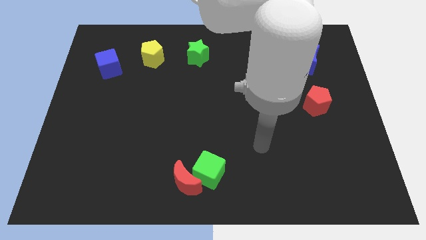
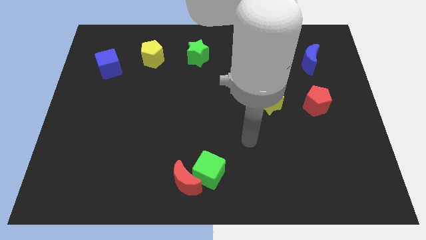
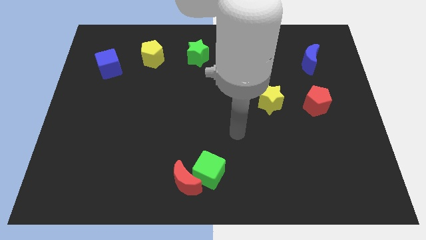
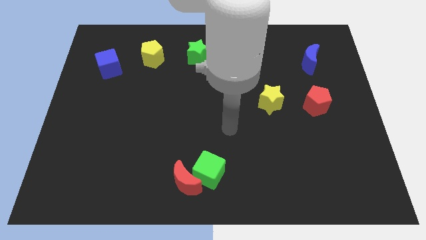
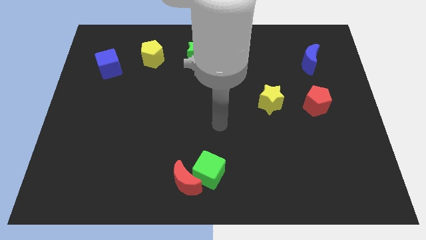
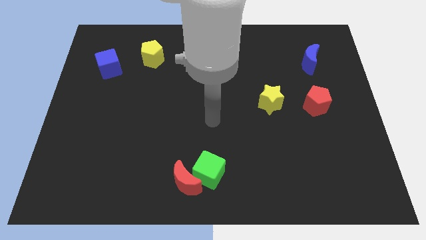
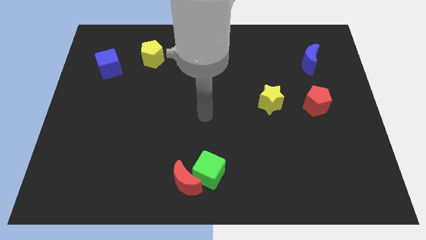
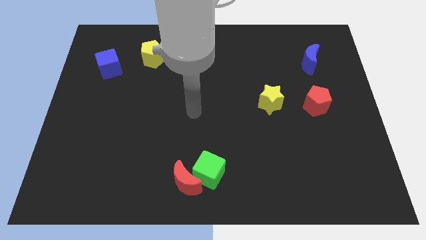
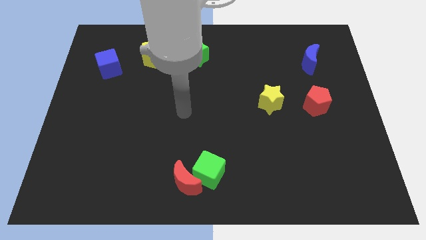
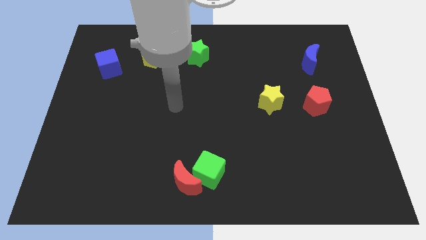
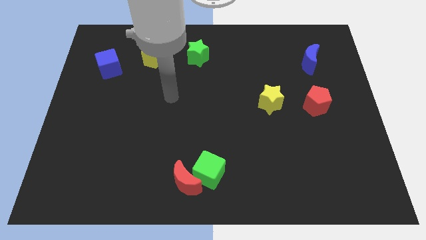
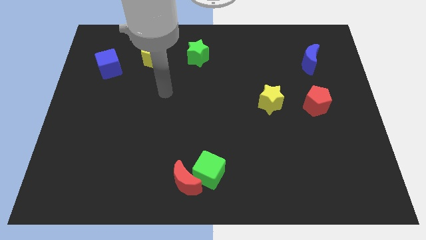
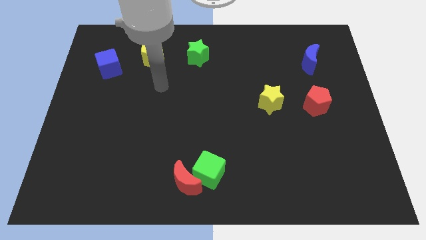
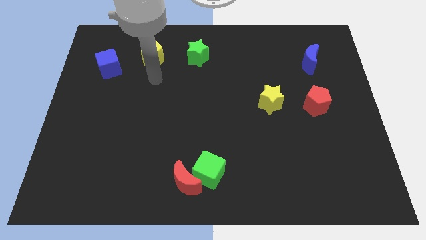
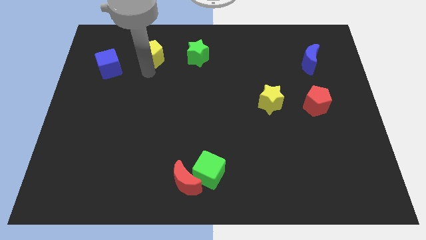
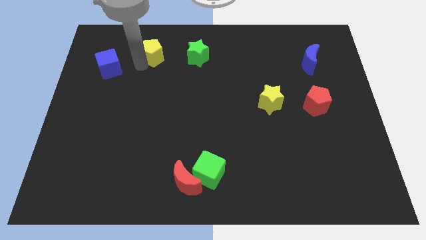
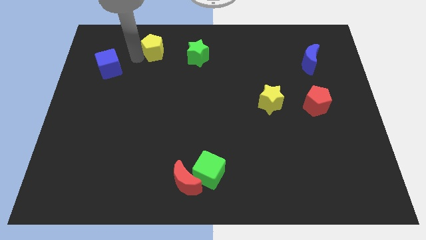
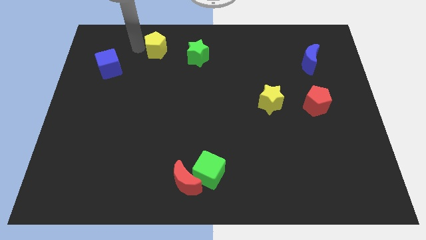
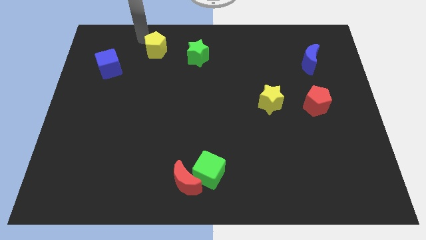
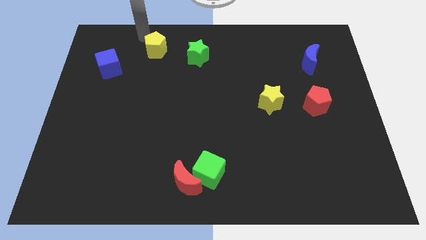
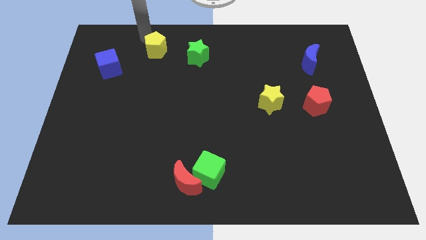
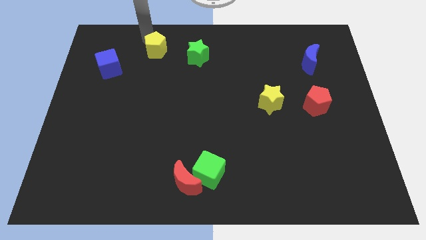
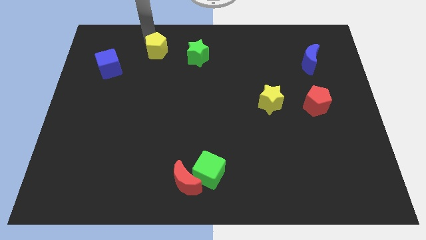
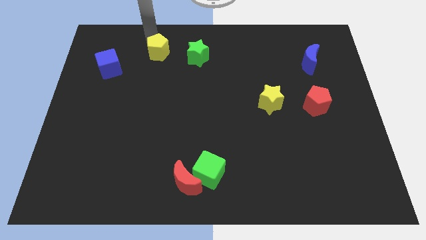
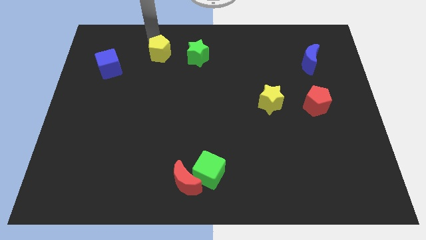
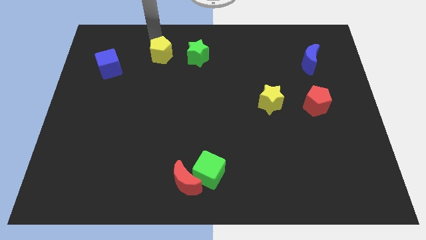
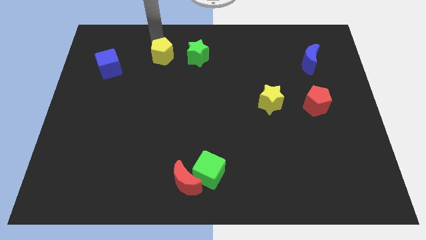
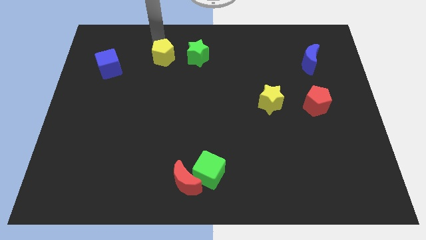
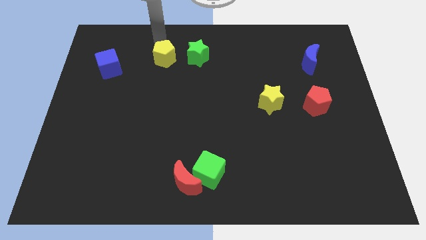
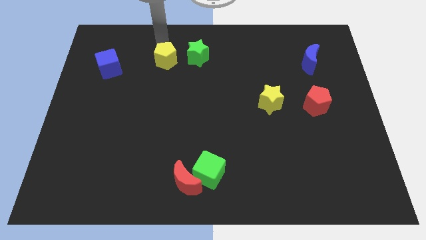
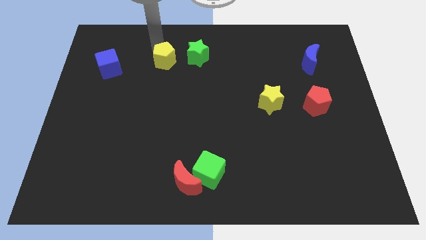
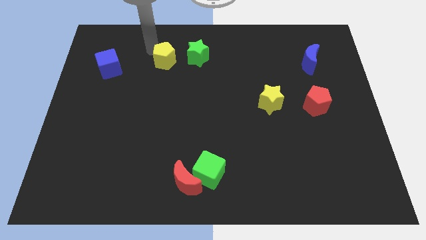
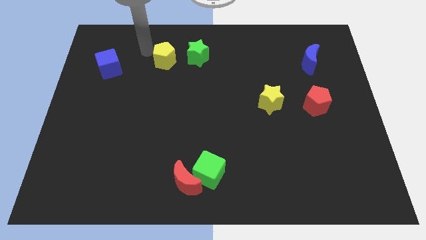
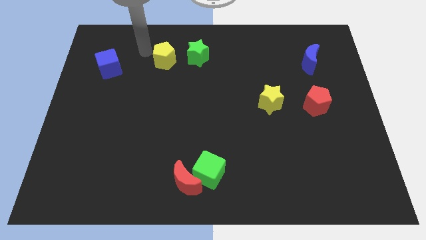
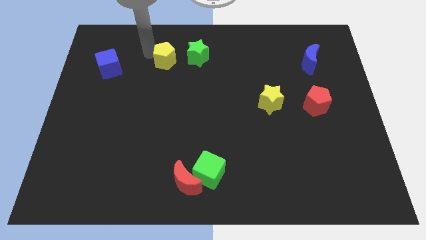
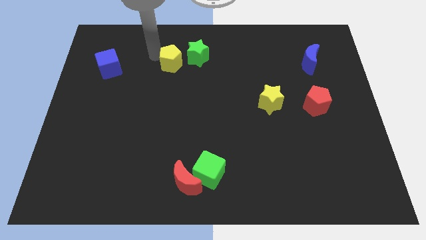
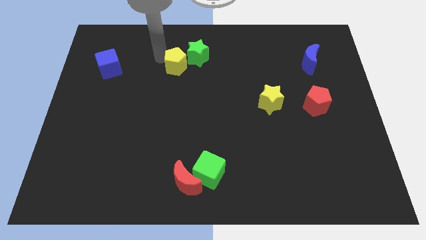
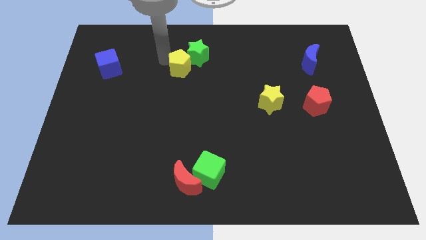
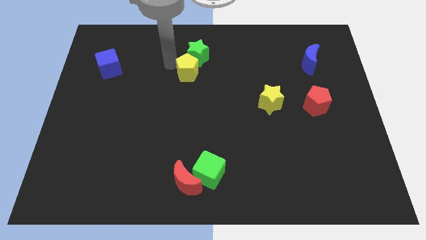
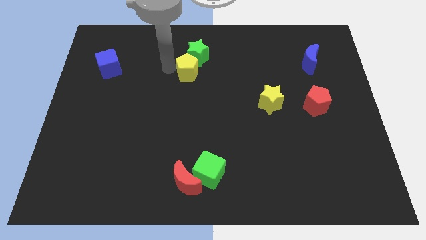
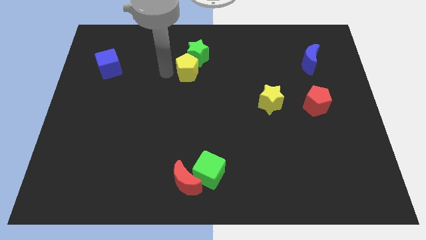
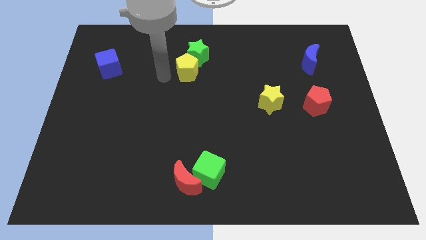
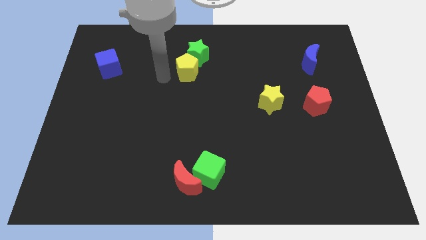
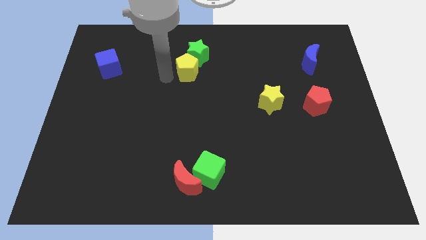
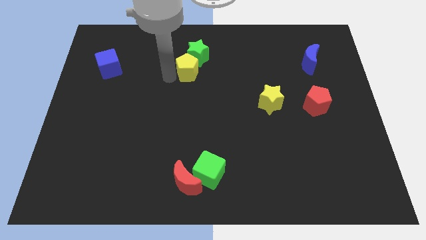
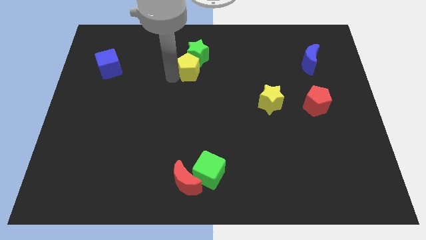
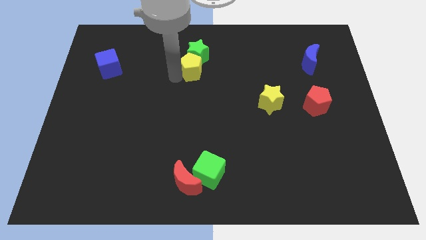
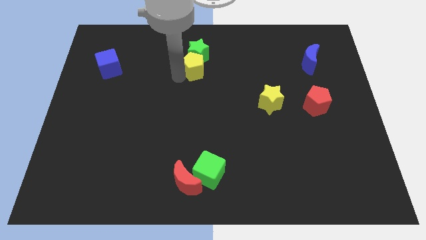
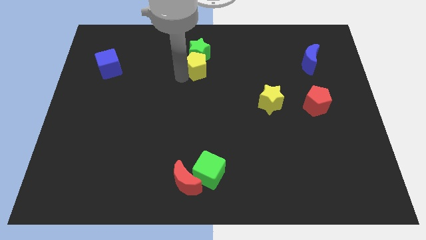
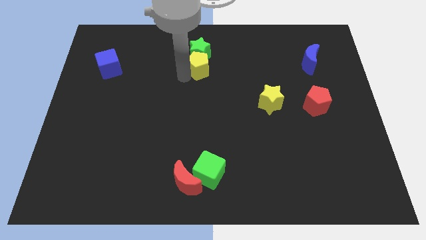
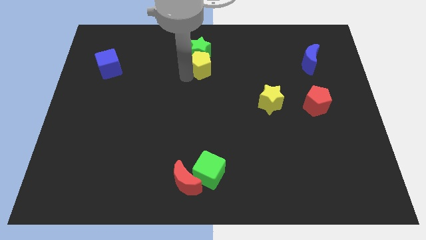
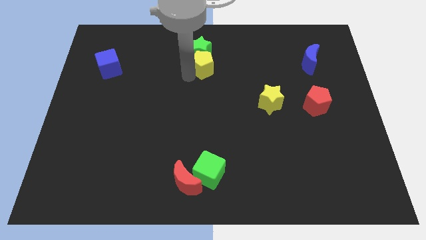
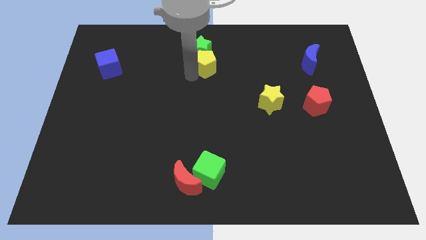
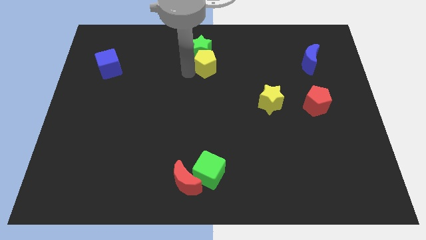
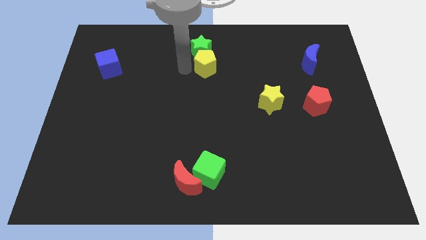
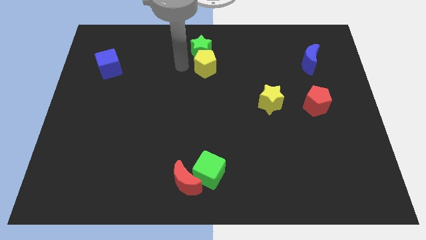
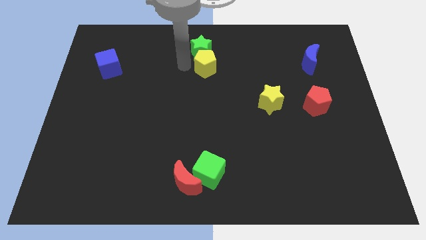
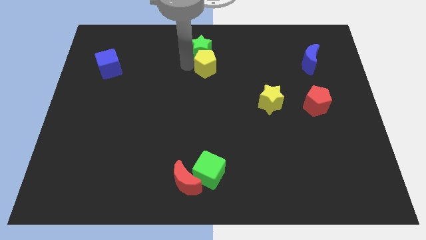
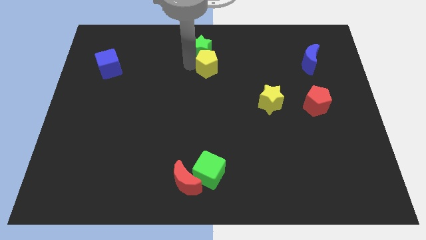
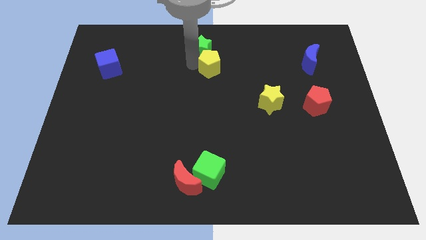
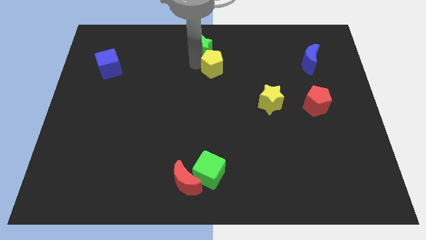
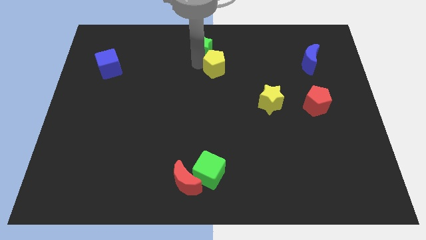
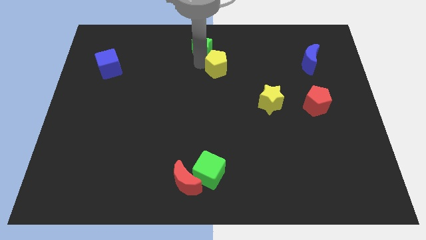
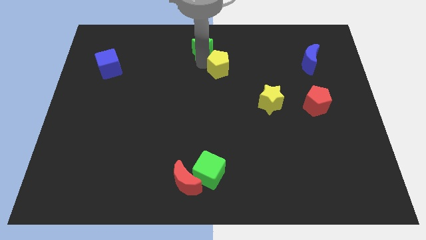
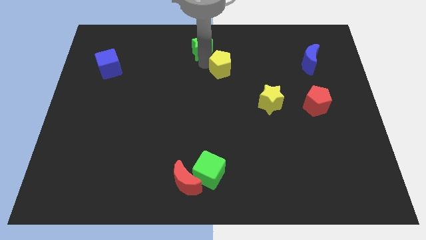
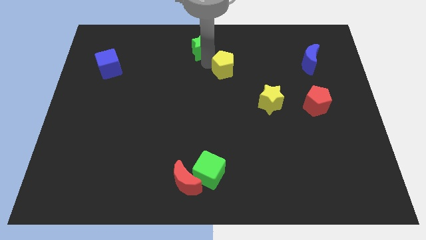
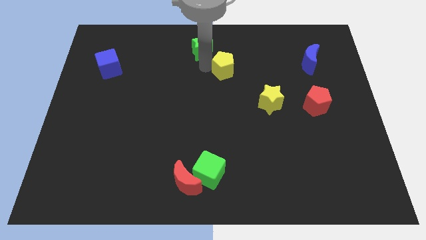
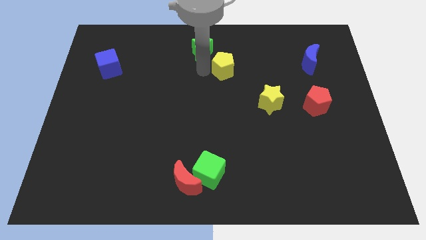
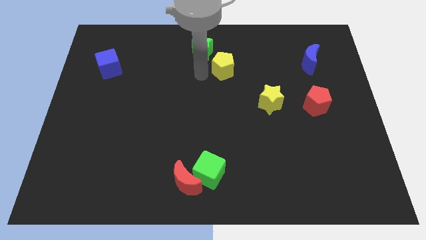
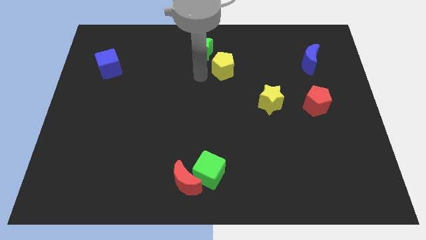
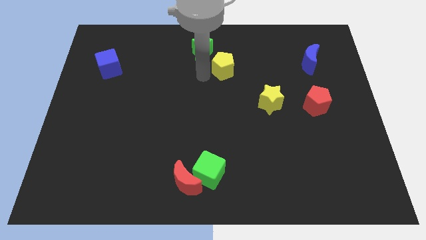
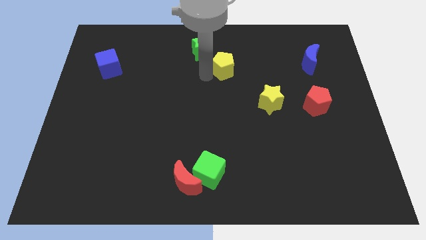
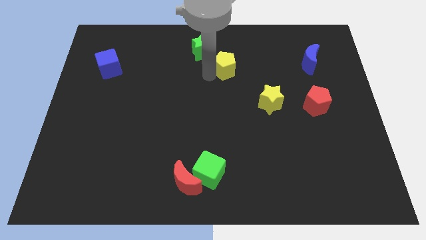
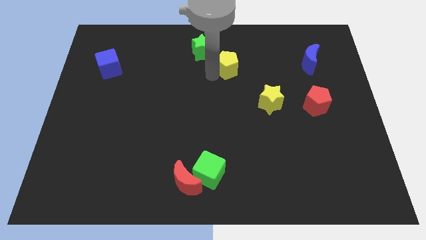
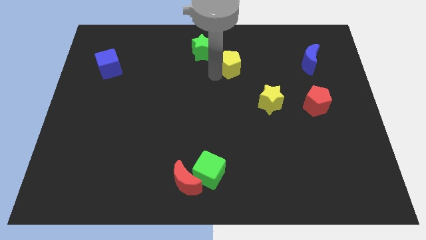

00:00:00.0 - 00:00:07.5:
slide the yellow pentagon to the right

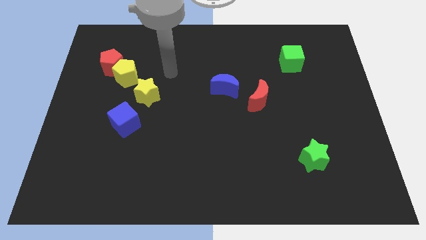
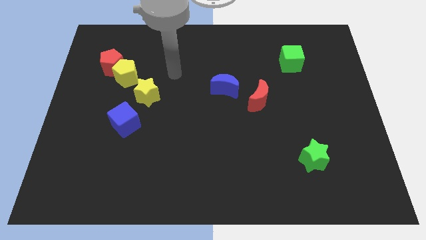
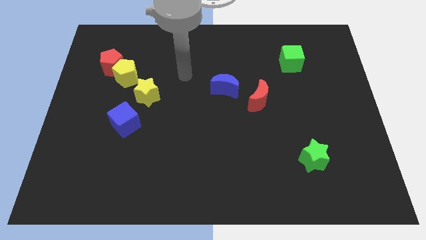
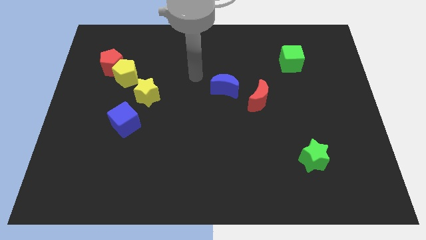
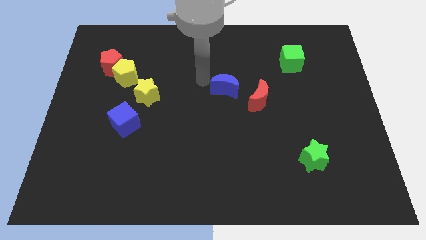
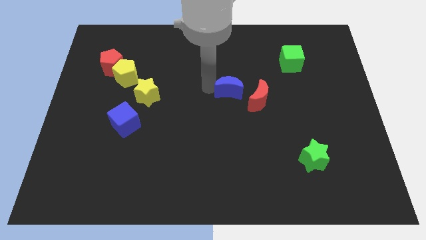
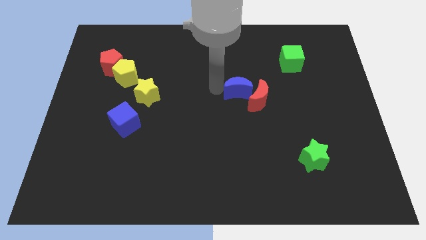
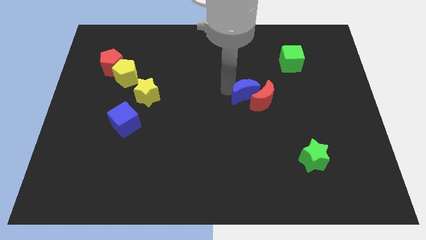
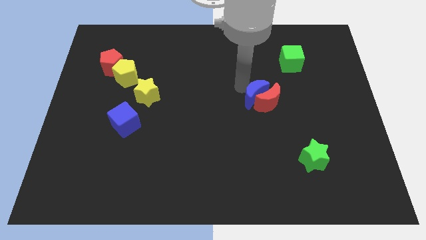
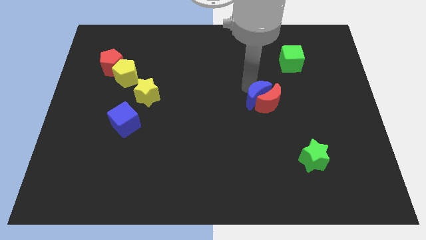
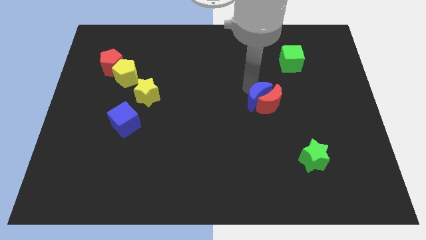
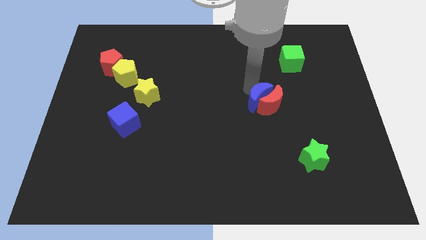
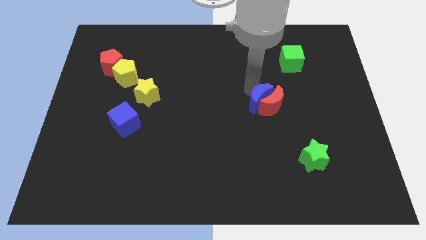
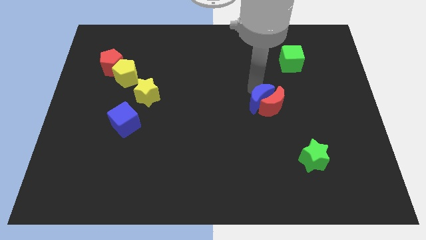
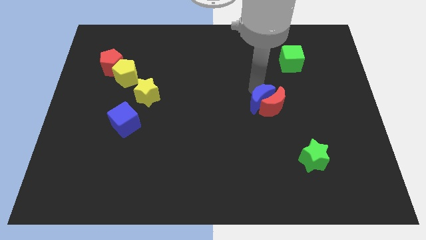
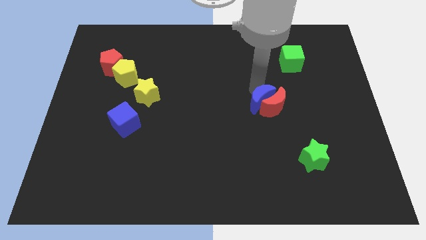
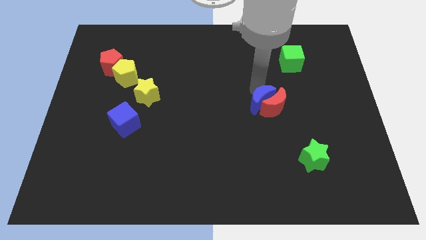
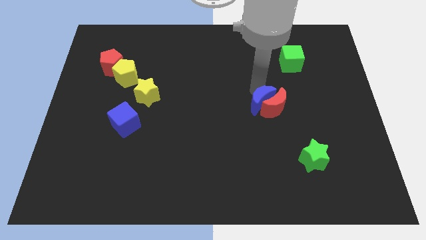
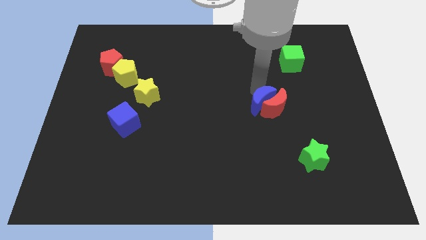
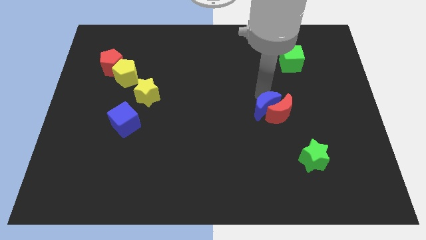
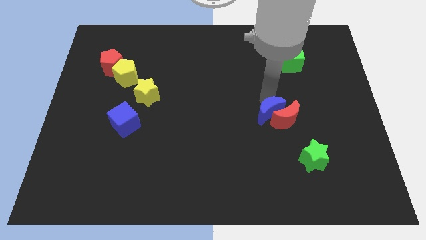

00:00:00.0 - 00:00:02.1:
push the red moon down and to the right diagonally a little bit
